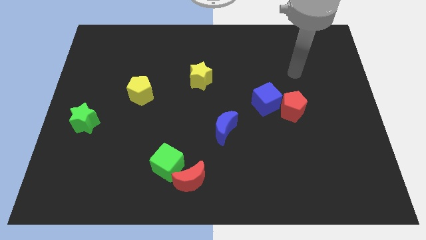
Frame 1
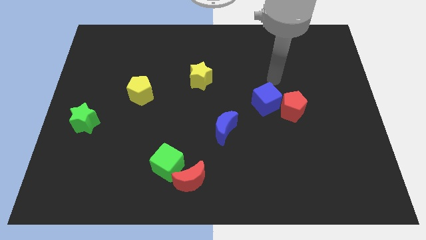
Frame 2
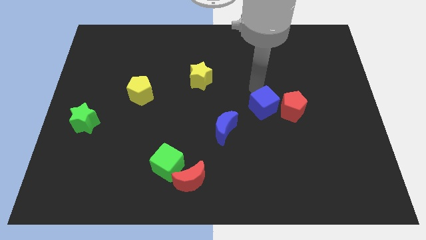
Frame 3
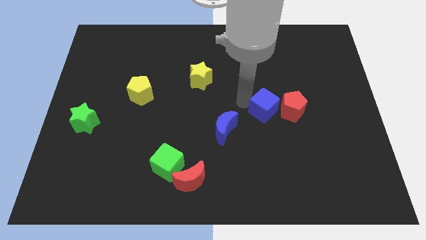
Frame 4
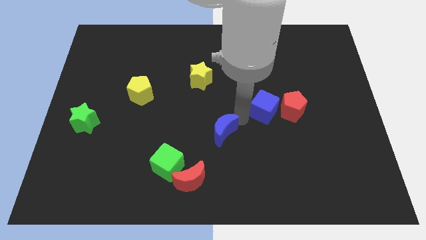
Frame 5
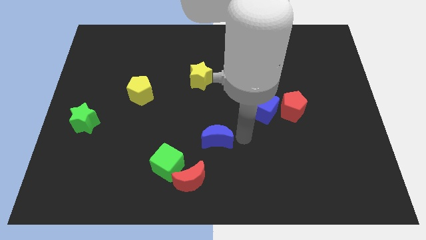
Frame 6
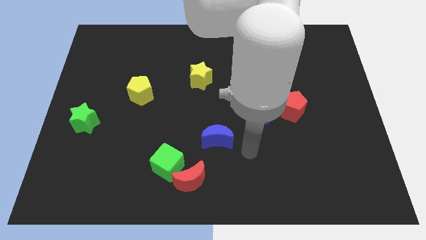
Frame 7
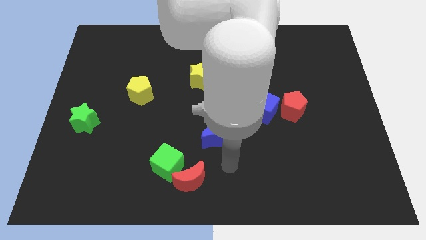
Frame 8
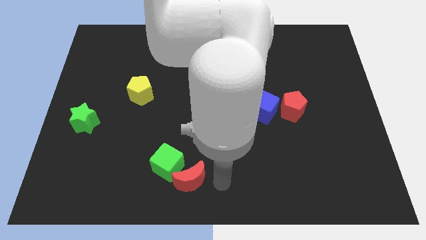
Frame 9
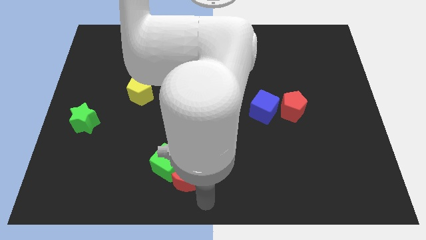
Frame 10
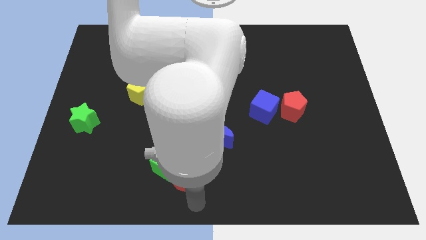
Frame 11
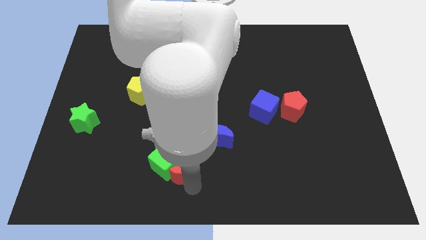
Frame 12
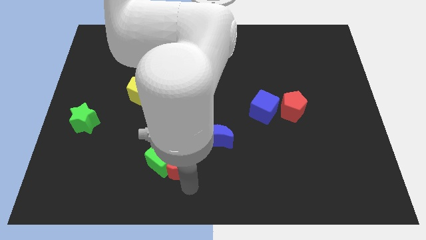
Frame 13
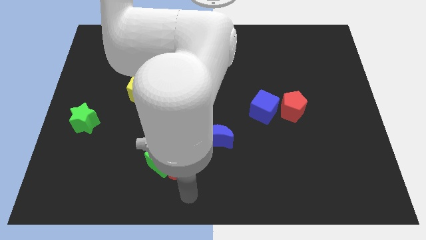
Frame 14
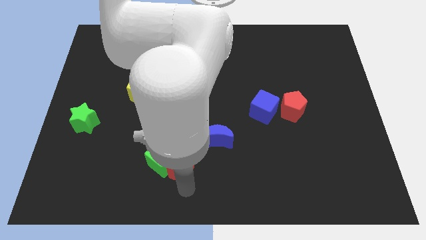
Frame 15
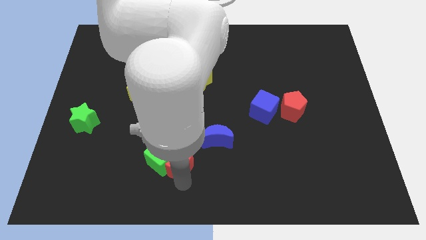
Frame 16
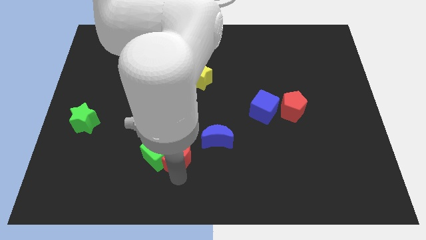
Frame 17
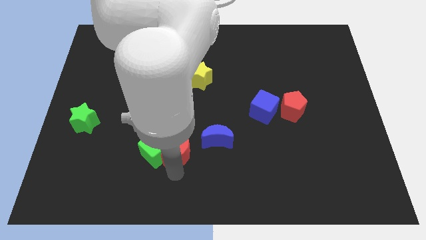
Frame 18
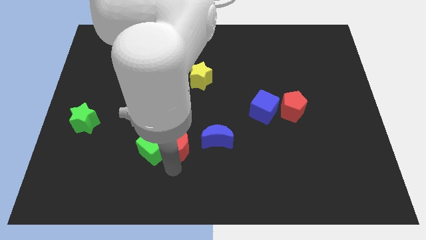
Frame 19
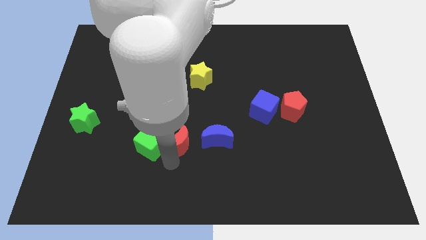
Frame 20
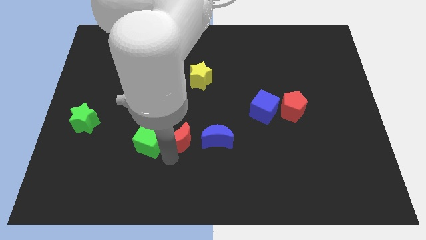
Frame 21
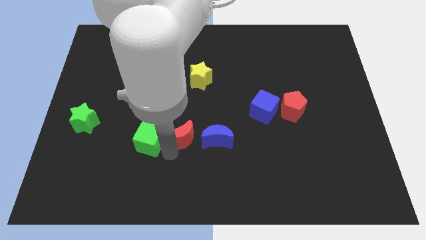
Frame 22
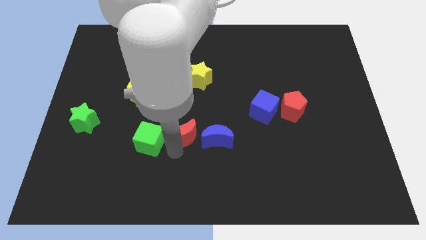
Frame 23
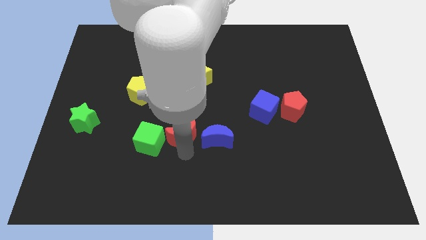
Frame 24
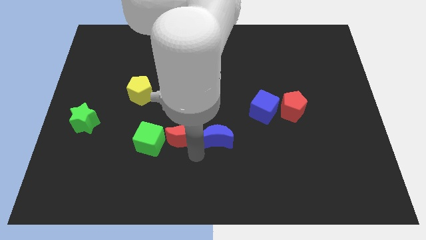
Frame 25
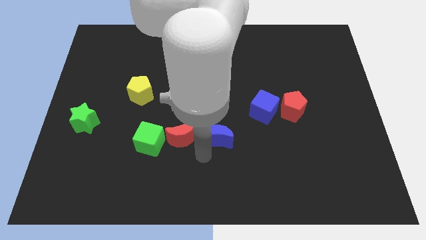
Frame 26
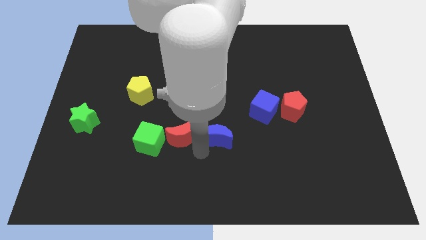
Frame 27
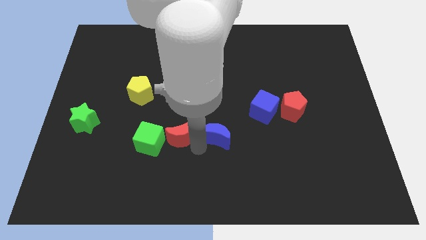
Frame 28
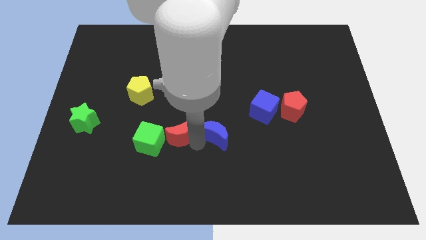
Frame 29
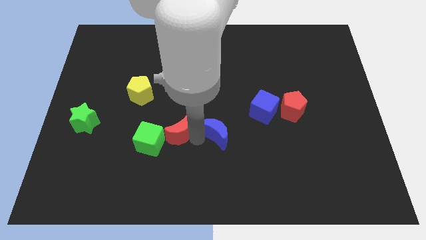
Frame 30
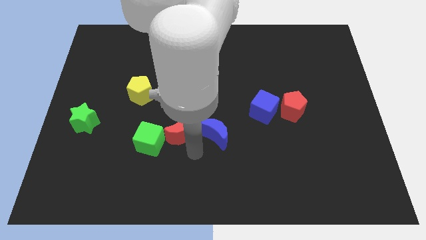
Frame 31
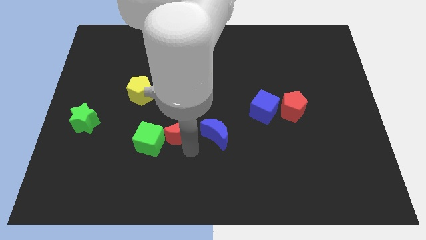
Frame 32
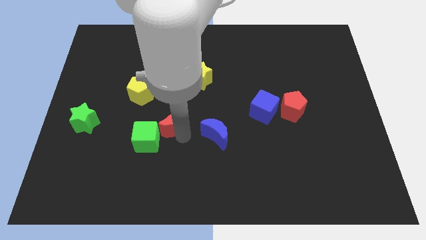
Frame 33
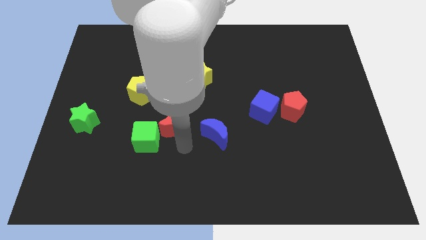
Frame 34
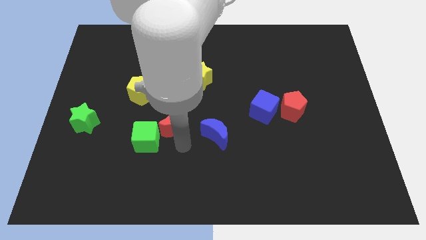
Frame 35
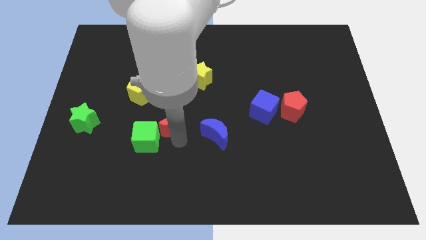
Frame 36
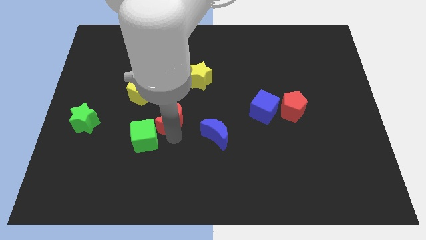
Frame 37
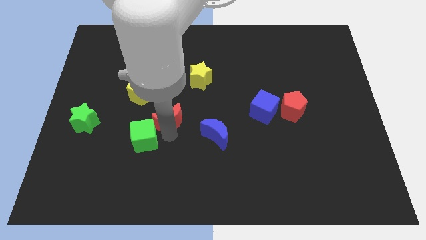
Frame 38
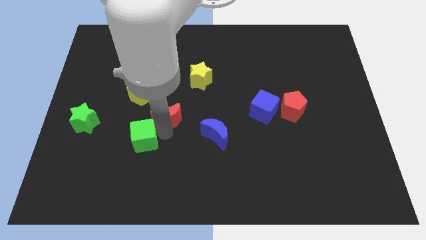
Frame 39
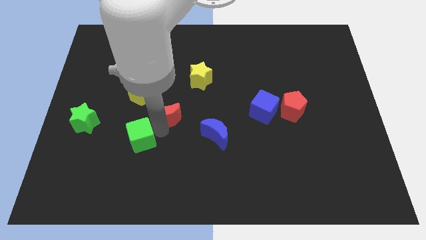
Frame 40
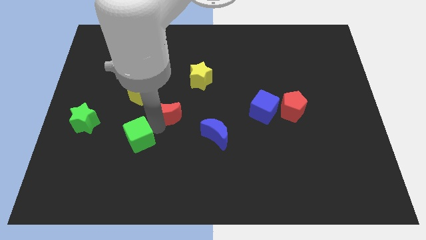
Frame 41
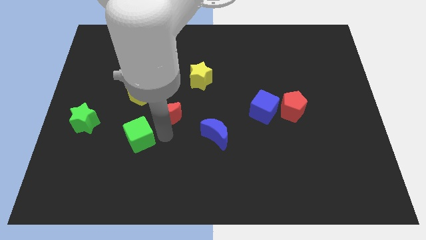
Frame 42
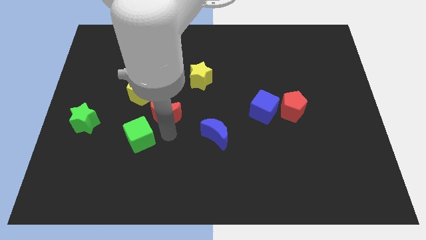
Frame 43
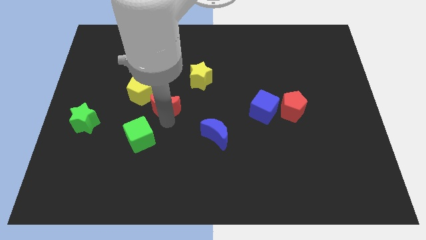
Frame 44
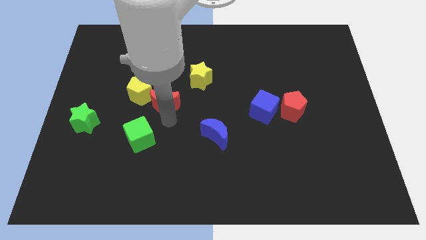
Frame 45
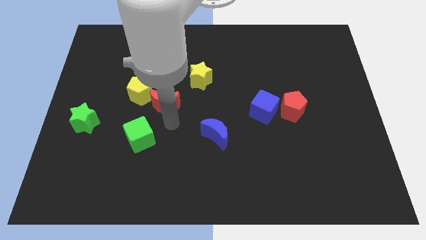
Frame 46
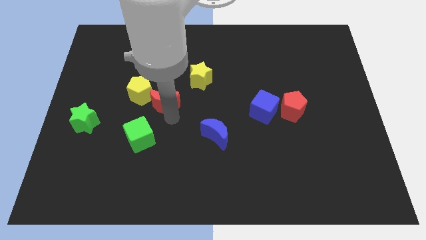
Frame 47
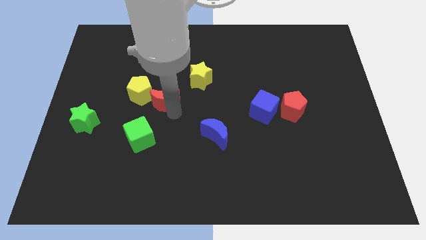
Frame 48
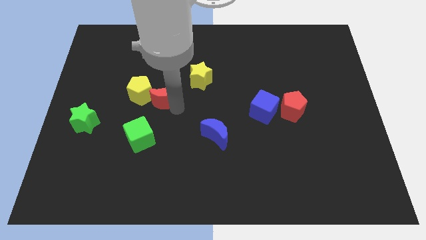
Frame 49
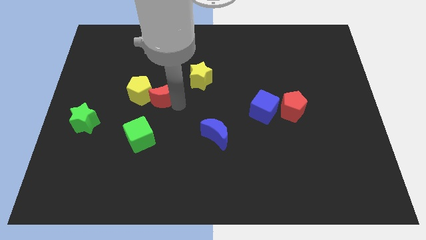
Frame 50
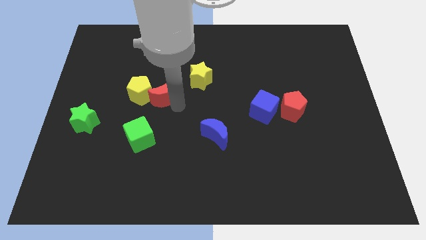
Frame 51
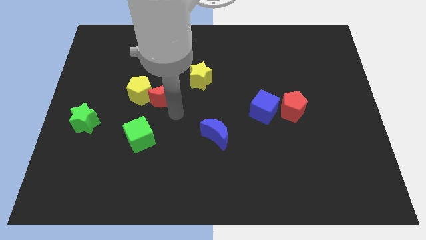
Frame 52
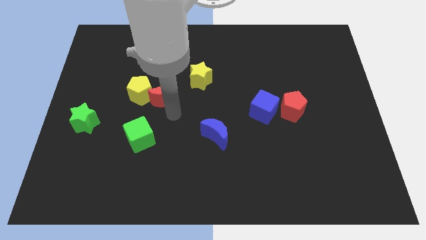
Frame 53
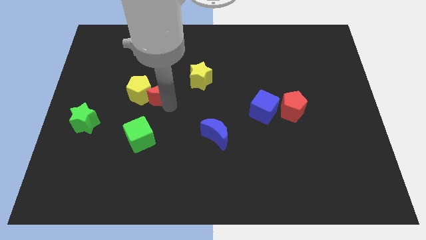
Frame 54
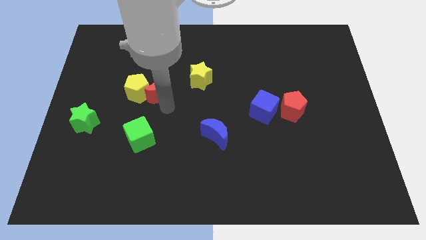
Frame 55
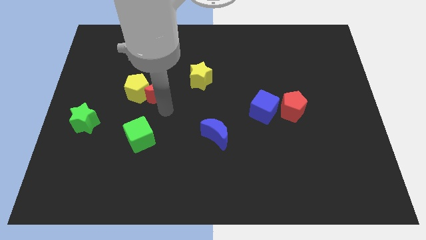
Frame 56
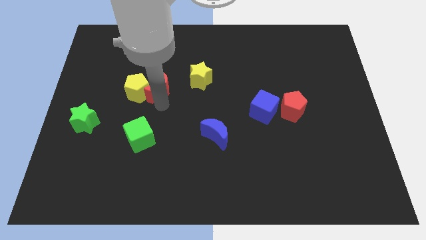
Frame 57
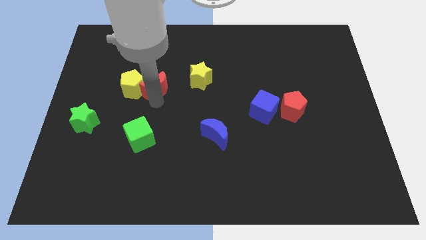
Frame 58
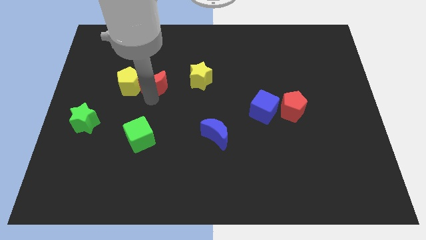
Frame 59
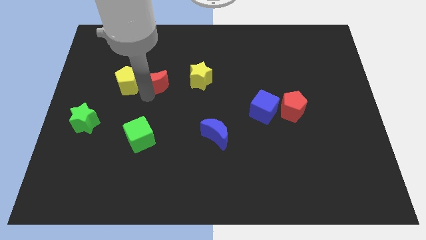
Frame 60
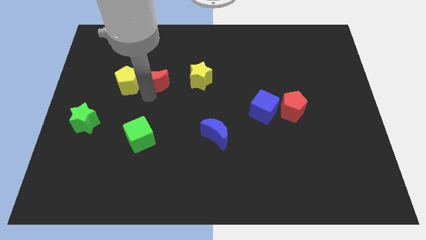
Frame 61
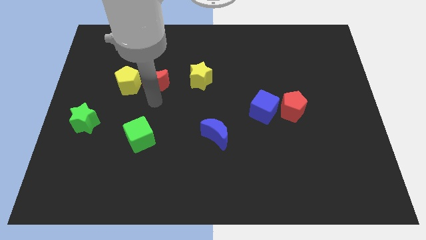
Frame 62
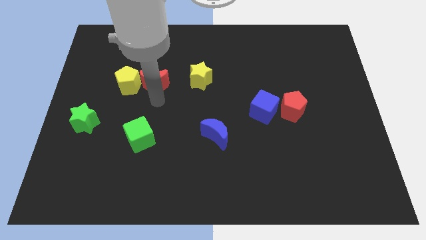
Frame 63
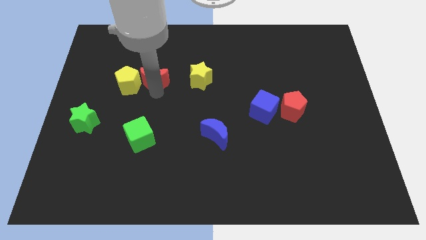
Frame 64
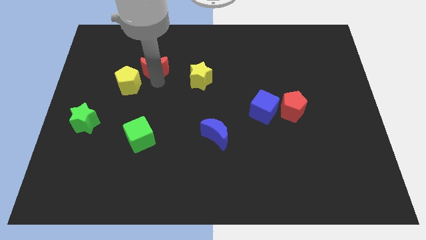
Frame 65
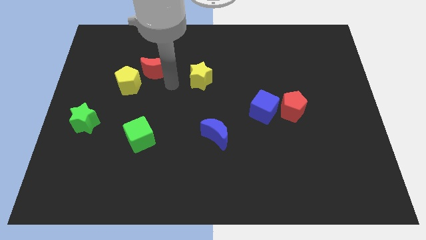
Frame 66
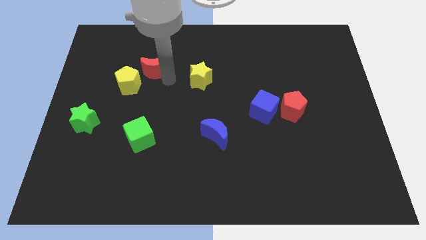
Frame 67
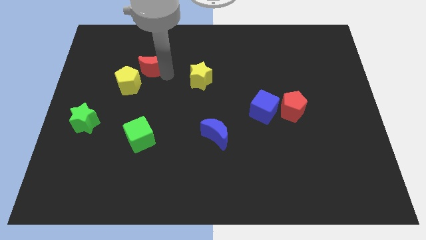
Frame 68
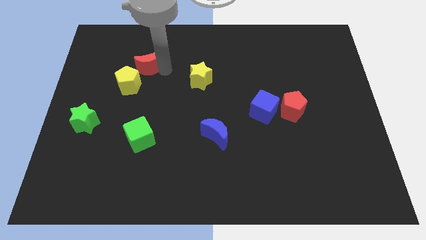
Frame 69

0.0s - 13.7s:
push the red moon above the yellow pentagon

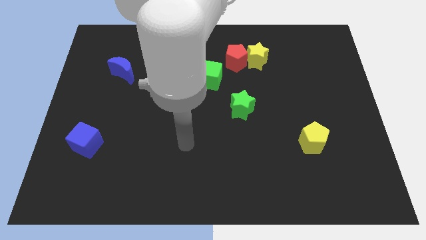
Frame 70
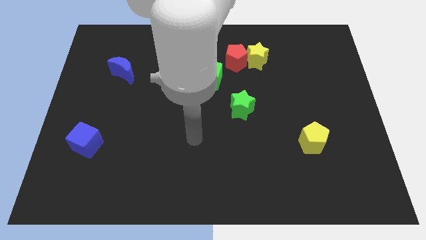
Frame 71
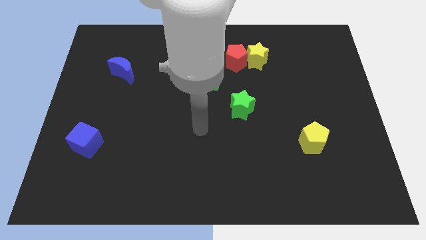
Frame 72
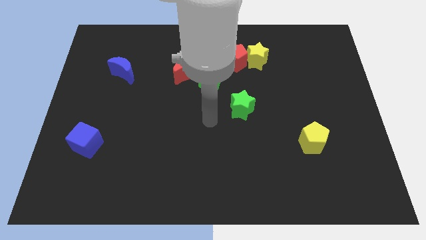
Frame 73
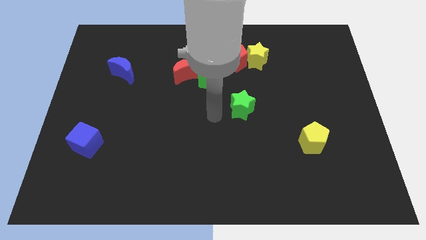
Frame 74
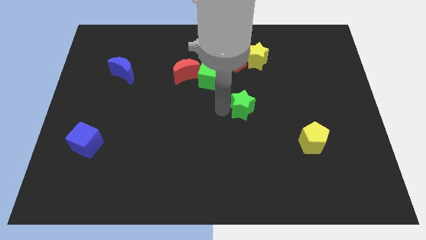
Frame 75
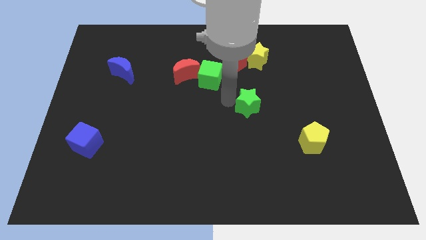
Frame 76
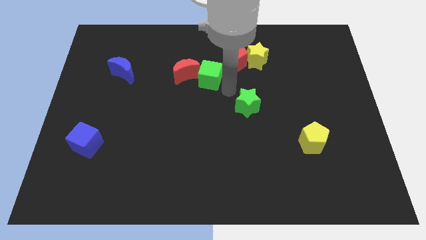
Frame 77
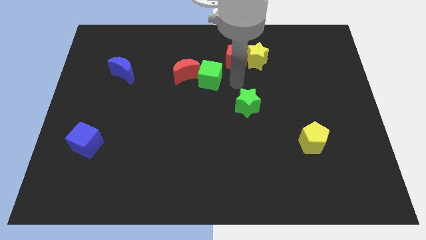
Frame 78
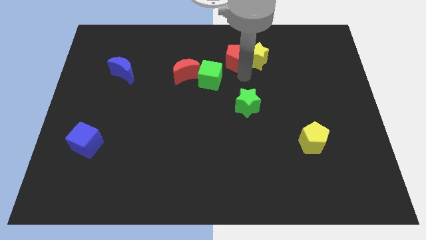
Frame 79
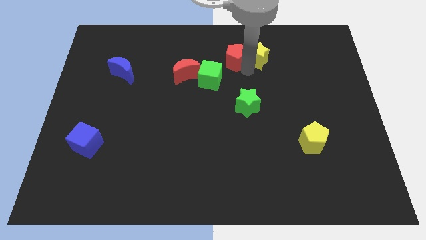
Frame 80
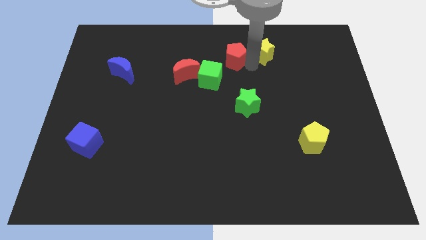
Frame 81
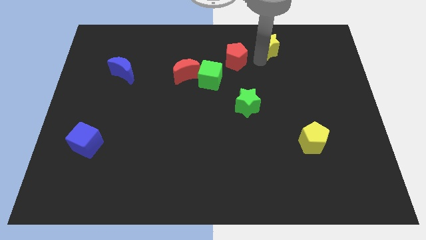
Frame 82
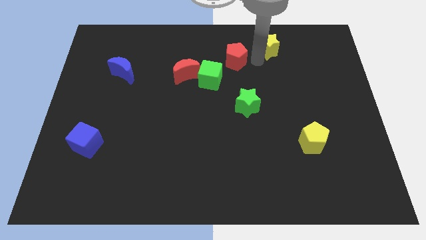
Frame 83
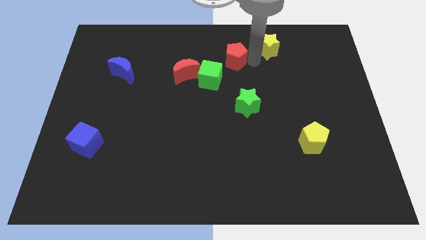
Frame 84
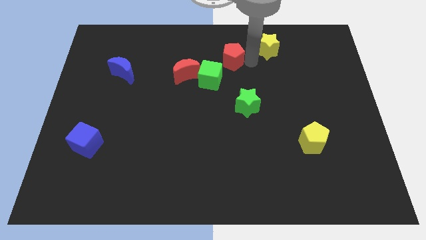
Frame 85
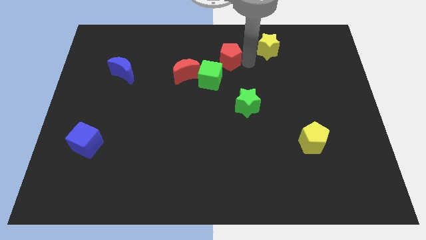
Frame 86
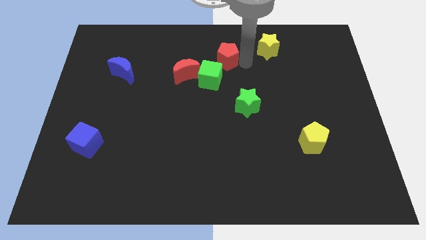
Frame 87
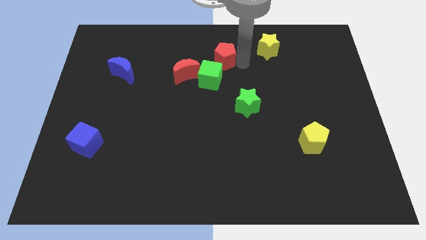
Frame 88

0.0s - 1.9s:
put the red pentagon to the top right of the red moon
